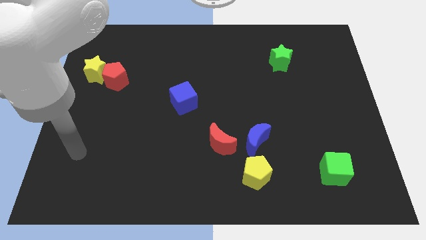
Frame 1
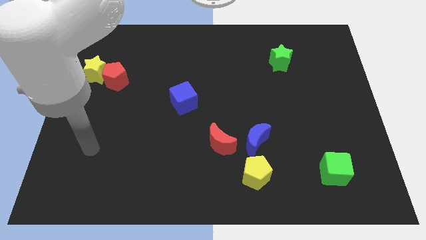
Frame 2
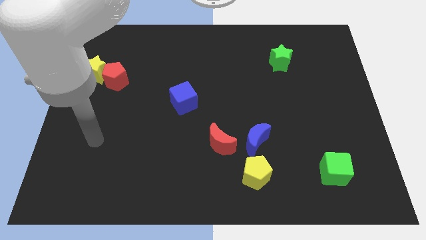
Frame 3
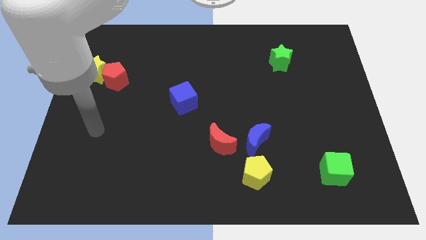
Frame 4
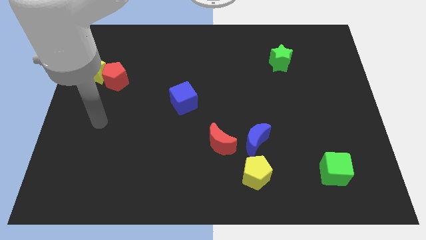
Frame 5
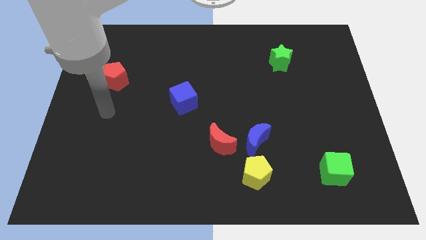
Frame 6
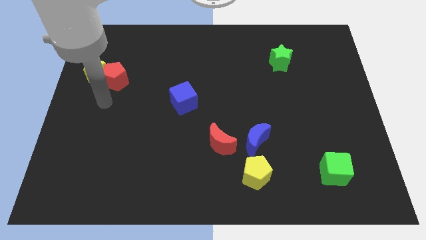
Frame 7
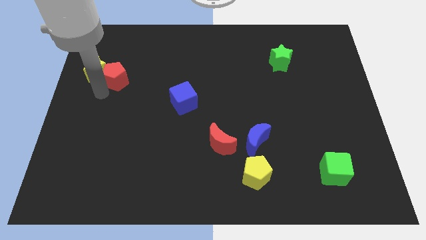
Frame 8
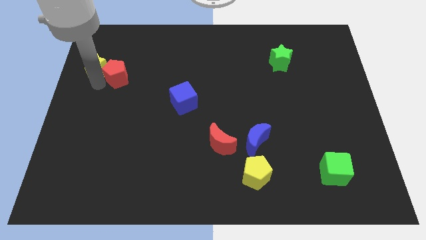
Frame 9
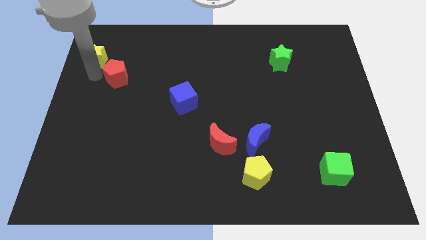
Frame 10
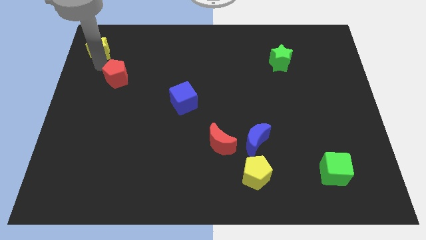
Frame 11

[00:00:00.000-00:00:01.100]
separate the red pentagon from the yellow star

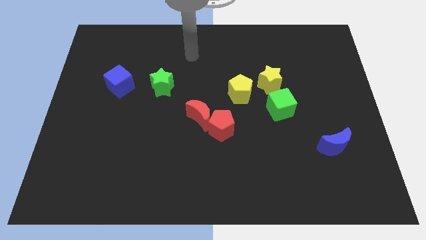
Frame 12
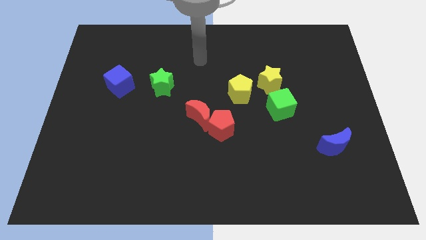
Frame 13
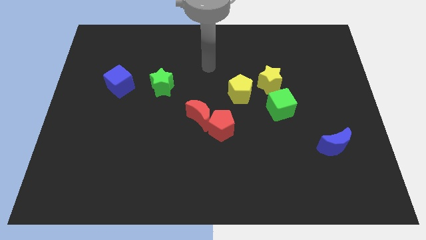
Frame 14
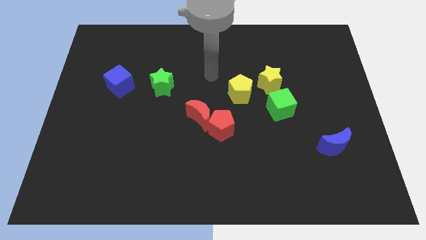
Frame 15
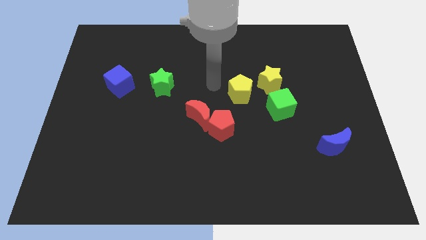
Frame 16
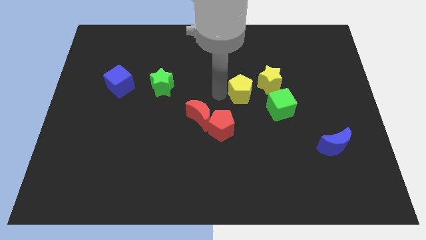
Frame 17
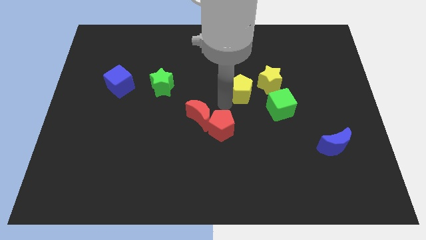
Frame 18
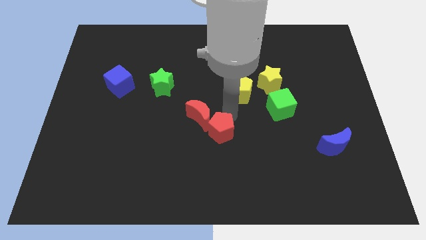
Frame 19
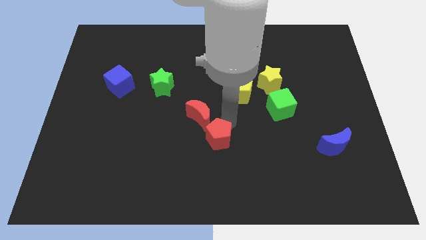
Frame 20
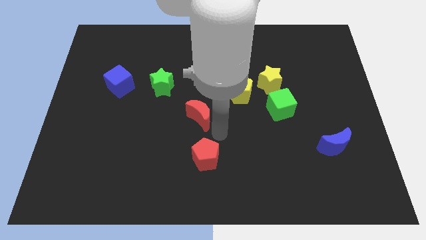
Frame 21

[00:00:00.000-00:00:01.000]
move the red moon away from the red pentagon

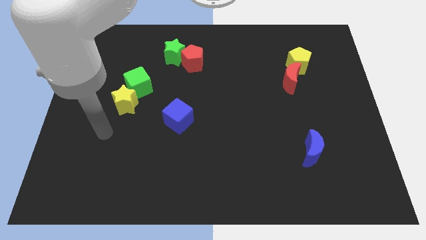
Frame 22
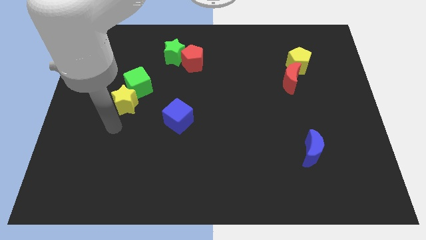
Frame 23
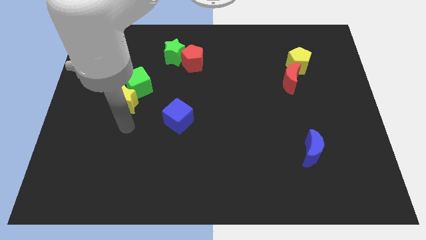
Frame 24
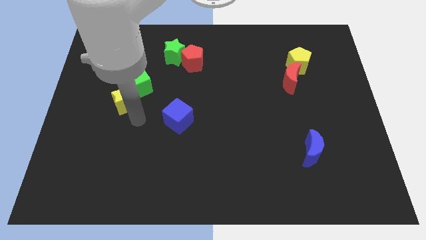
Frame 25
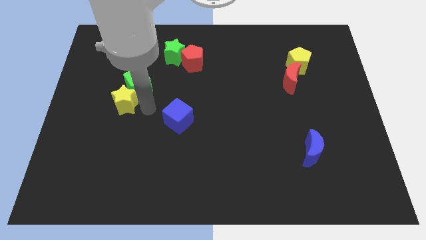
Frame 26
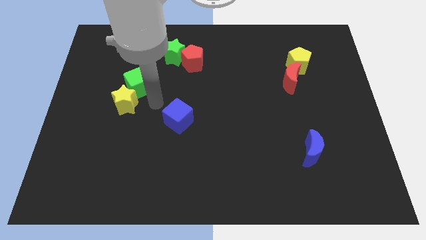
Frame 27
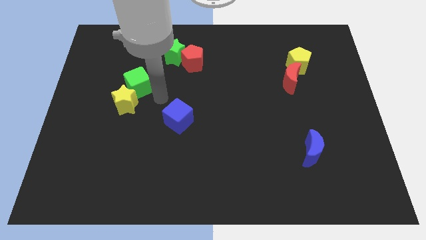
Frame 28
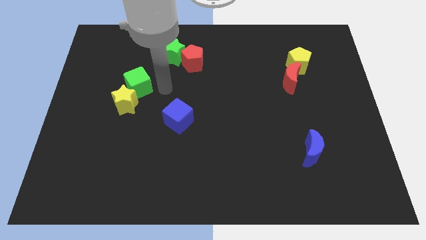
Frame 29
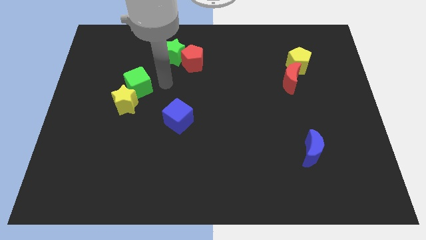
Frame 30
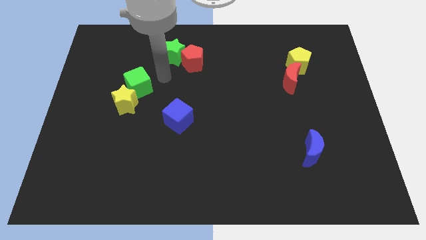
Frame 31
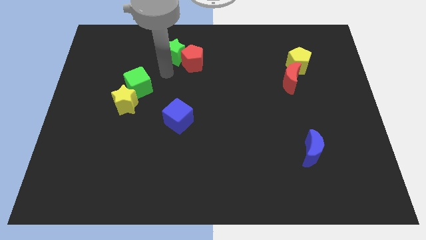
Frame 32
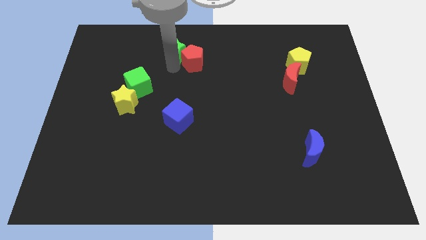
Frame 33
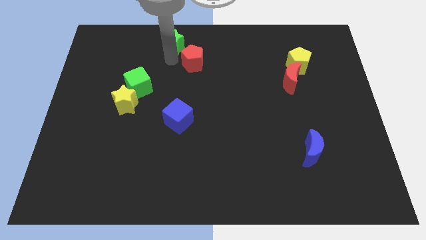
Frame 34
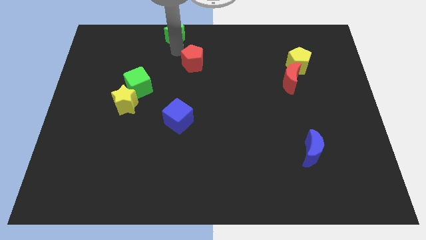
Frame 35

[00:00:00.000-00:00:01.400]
pull the red pentagon apart from the green star

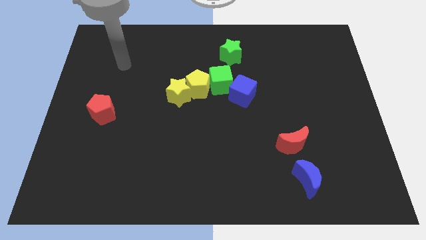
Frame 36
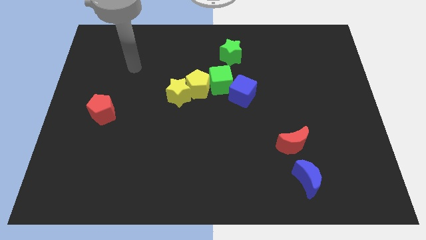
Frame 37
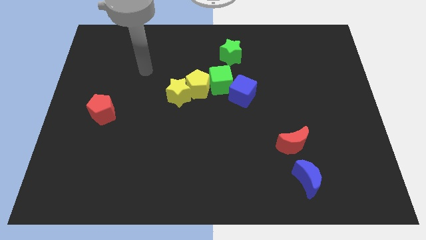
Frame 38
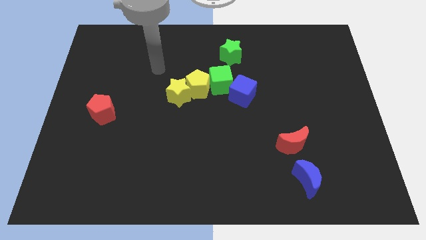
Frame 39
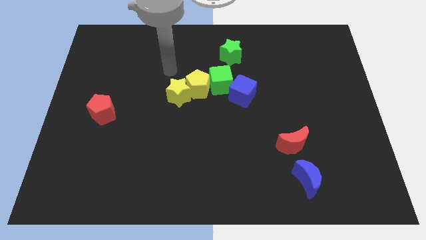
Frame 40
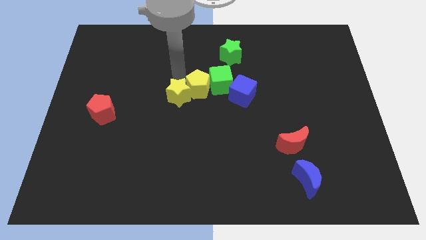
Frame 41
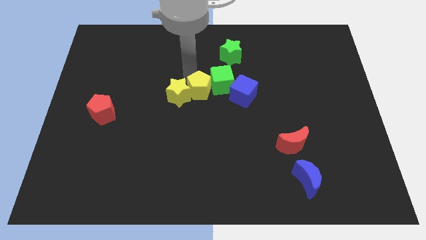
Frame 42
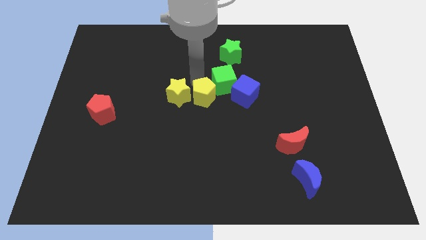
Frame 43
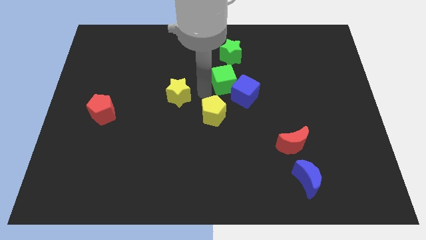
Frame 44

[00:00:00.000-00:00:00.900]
pull the yellow star apart from the yellow pentagon

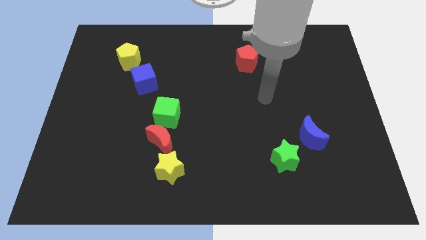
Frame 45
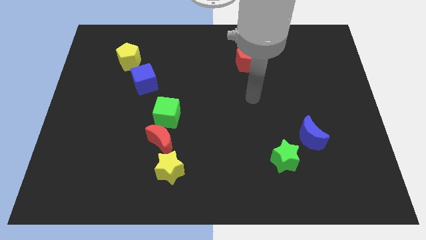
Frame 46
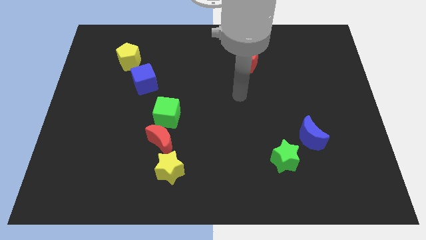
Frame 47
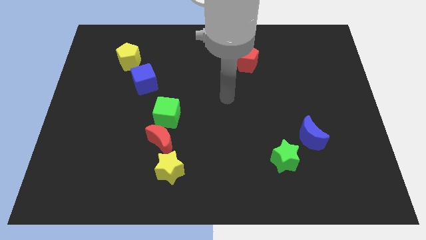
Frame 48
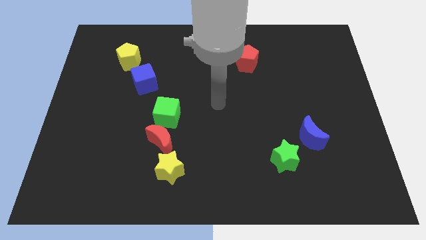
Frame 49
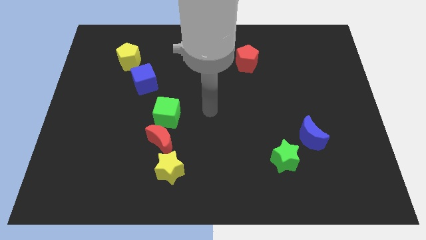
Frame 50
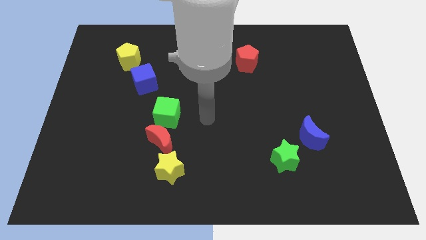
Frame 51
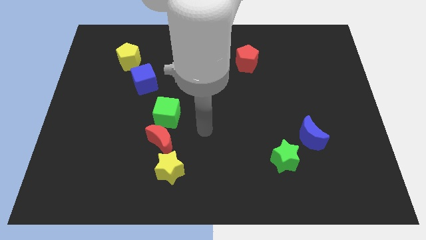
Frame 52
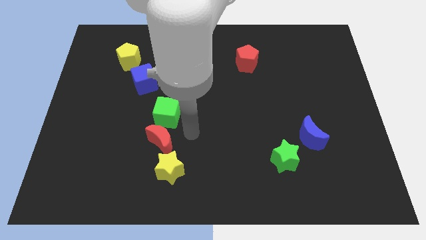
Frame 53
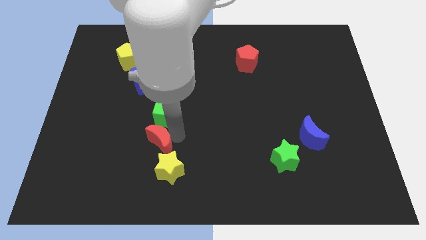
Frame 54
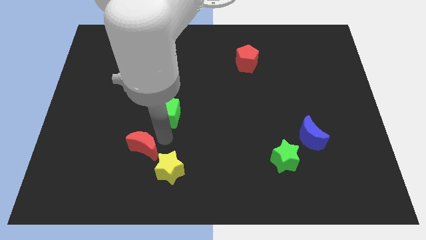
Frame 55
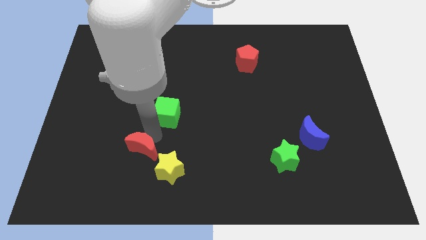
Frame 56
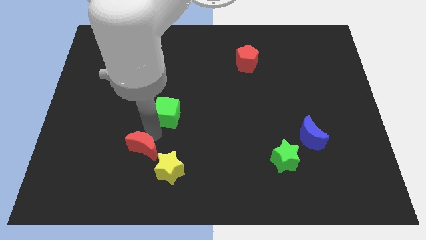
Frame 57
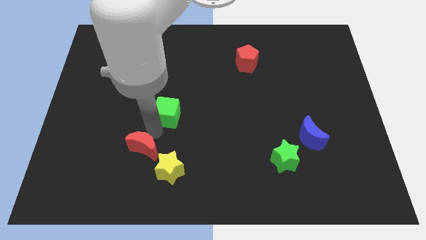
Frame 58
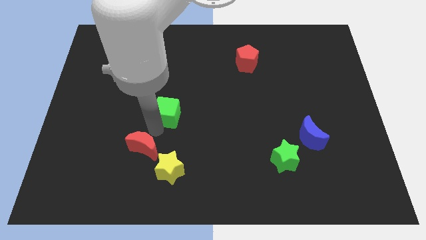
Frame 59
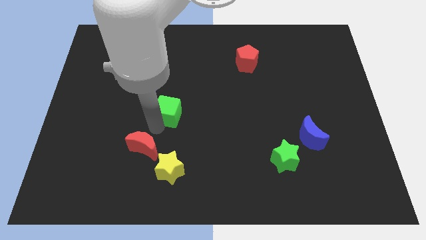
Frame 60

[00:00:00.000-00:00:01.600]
separate the green cube from the red moon

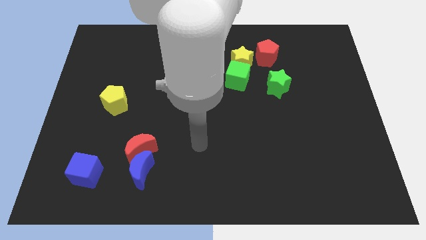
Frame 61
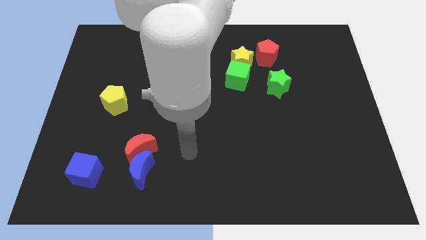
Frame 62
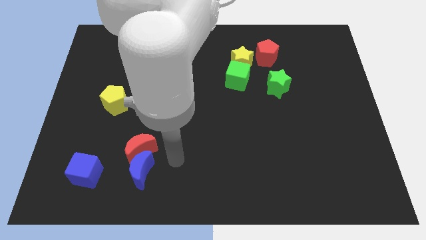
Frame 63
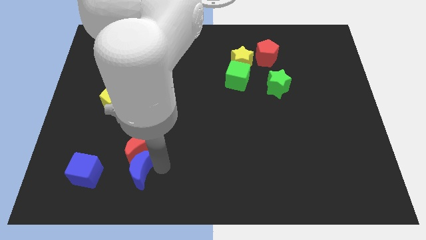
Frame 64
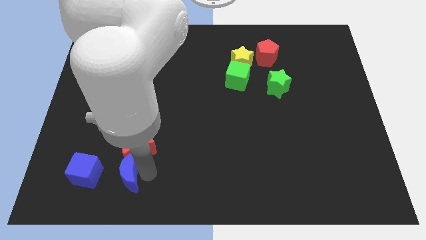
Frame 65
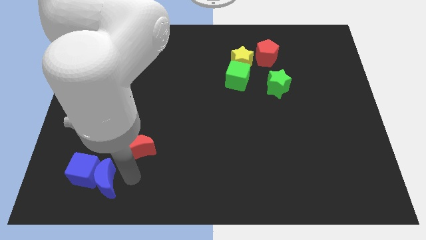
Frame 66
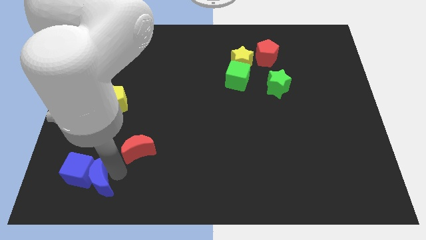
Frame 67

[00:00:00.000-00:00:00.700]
pull the red moon apart from the blue moon

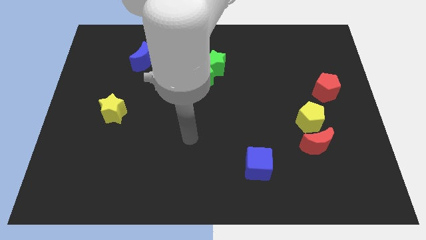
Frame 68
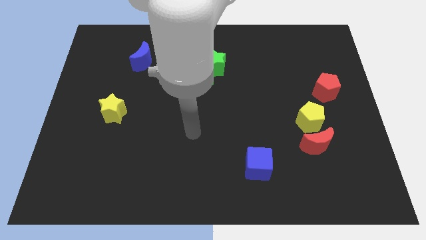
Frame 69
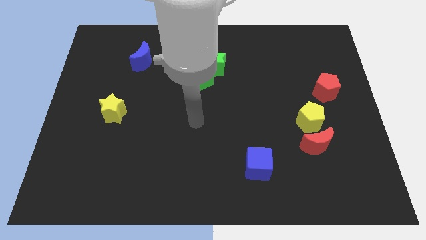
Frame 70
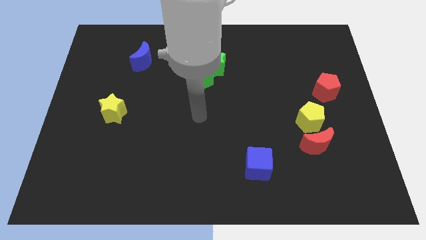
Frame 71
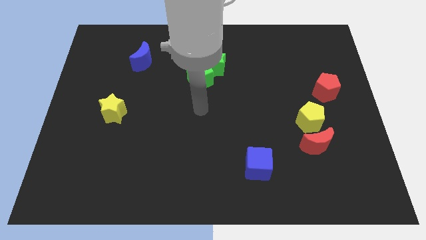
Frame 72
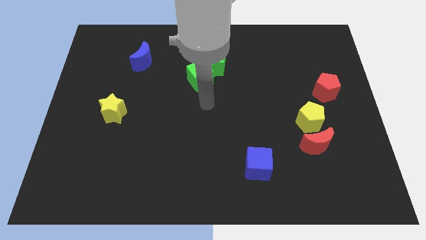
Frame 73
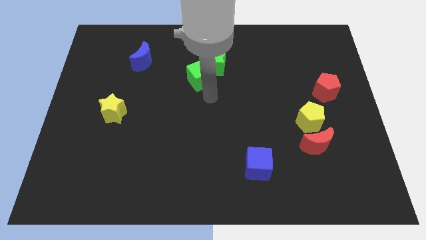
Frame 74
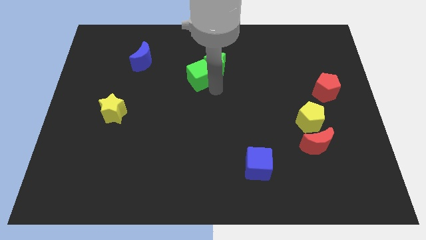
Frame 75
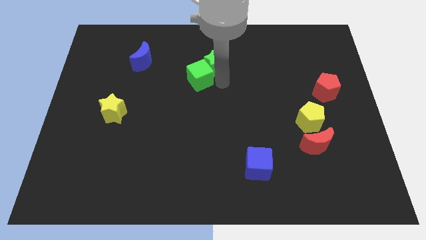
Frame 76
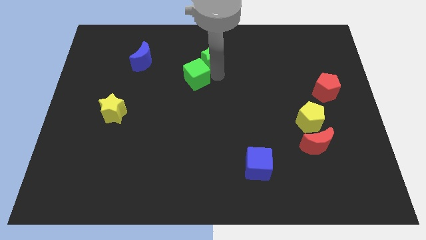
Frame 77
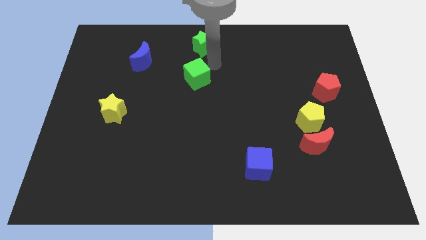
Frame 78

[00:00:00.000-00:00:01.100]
move the green cube away from the green star

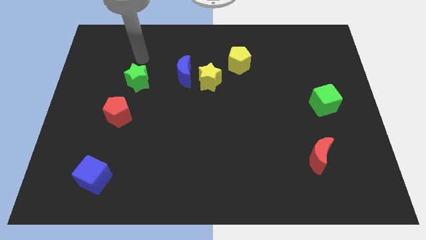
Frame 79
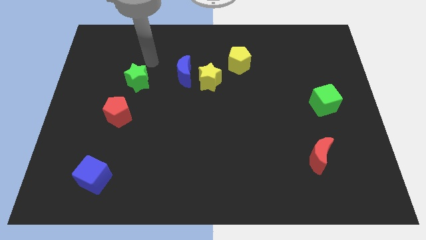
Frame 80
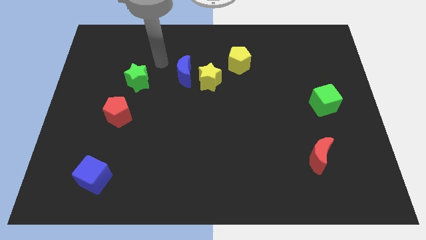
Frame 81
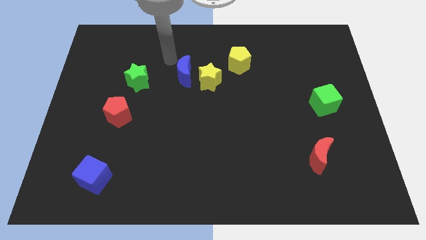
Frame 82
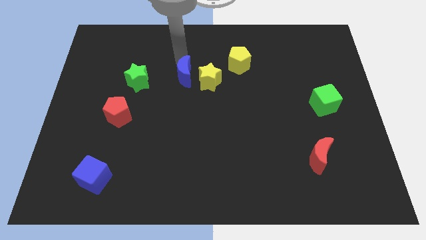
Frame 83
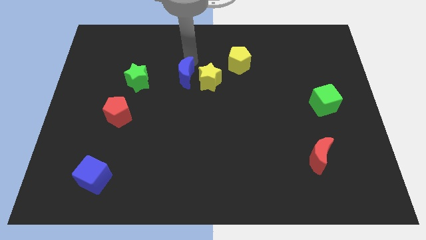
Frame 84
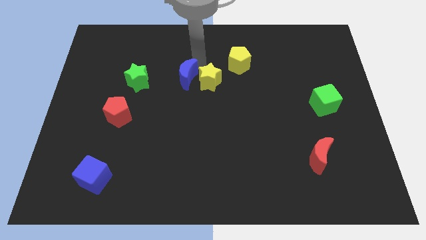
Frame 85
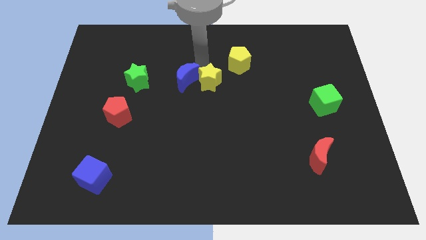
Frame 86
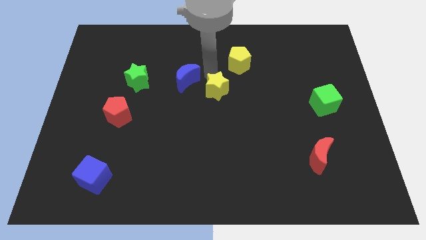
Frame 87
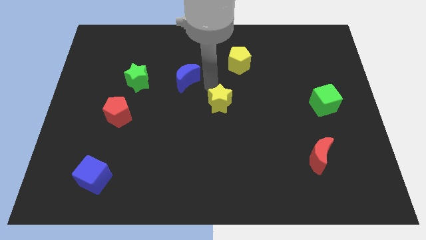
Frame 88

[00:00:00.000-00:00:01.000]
separate the blue moon from the yellow star

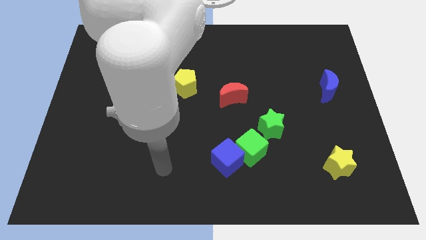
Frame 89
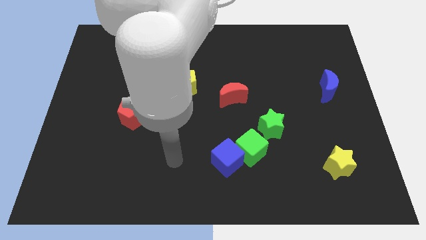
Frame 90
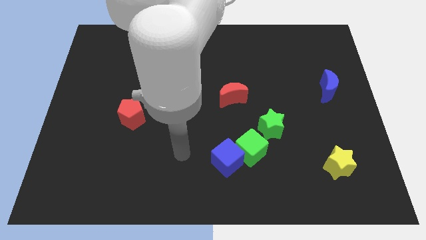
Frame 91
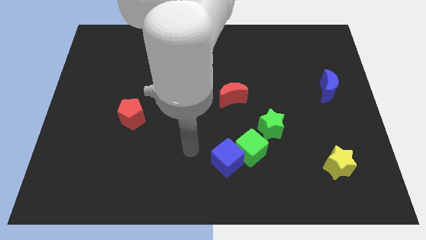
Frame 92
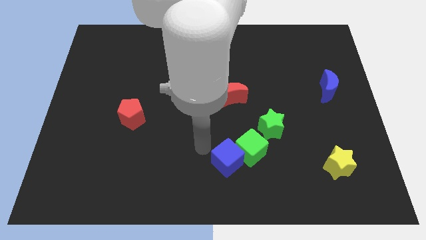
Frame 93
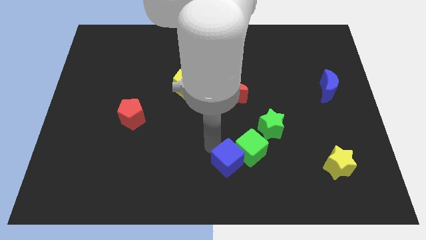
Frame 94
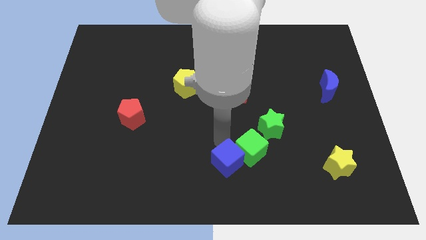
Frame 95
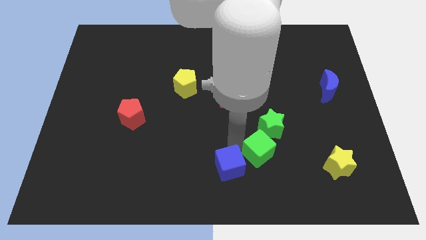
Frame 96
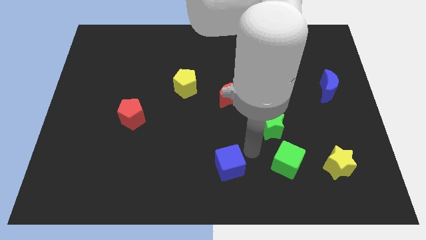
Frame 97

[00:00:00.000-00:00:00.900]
pull the blue cube apart from the green cube
